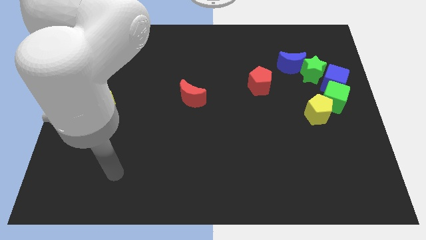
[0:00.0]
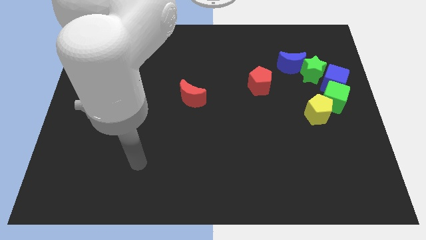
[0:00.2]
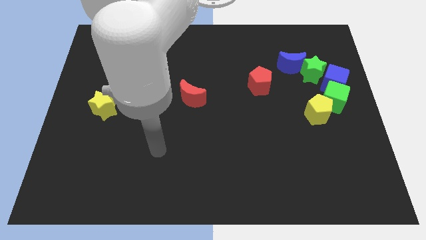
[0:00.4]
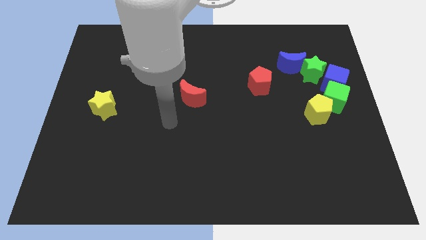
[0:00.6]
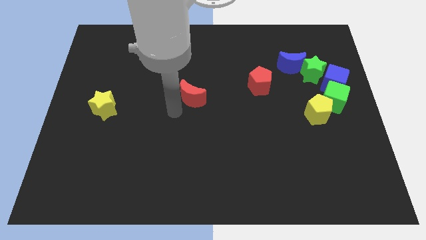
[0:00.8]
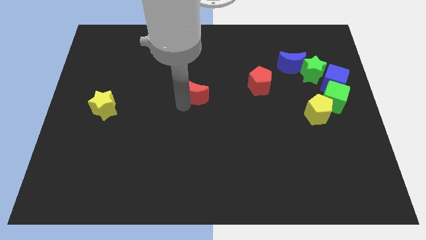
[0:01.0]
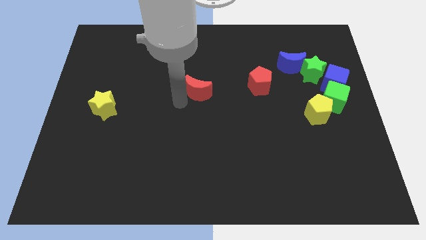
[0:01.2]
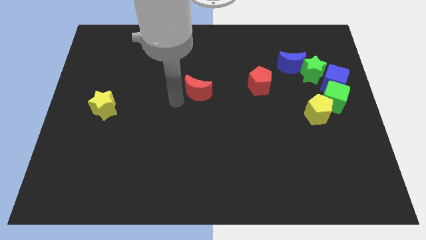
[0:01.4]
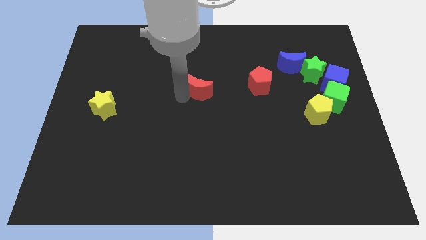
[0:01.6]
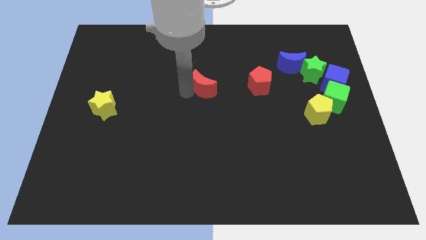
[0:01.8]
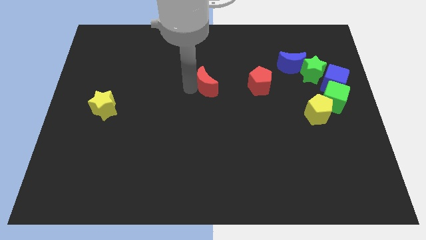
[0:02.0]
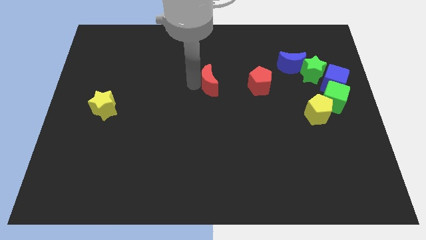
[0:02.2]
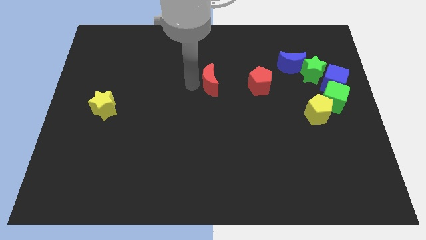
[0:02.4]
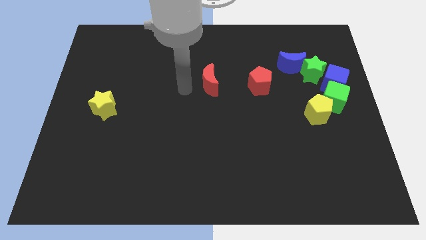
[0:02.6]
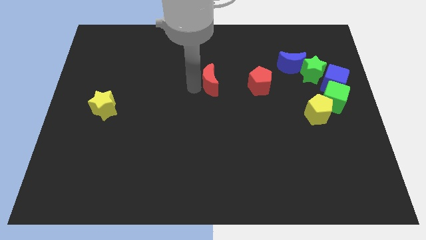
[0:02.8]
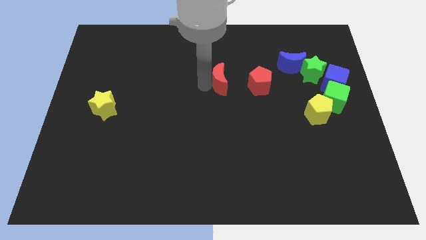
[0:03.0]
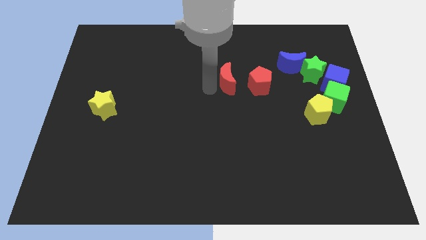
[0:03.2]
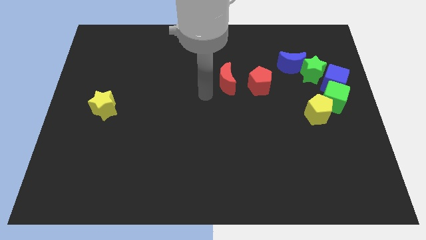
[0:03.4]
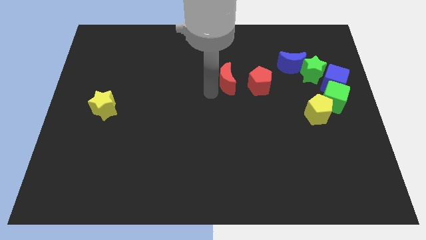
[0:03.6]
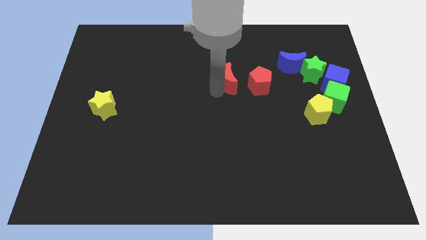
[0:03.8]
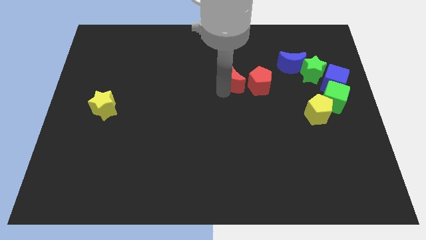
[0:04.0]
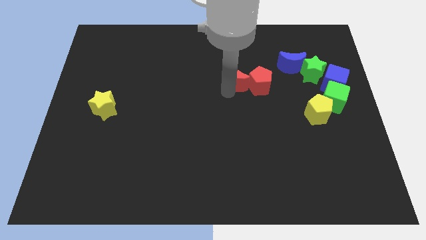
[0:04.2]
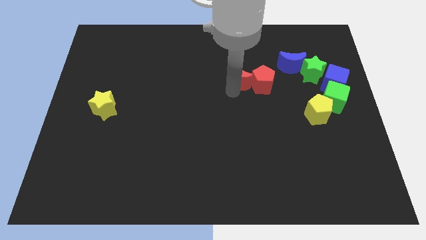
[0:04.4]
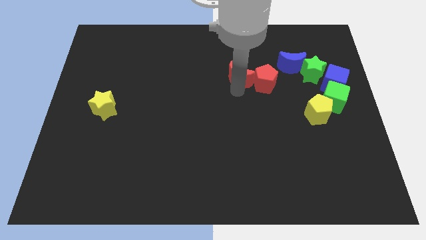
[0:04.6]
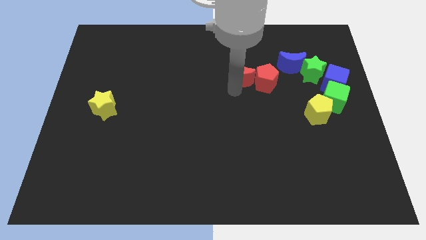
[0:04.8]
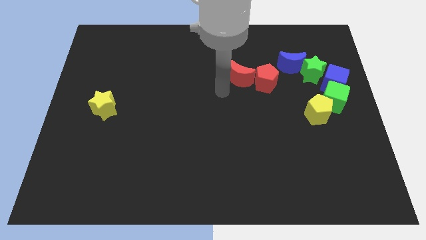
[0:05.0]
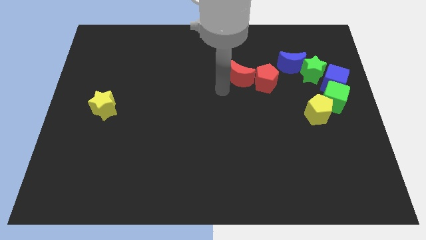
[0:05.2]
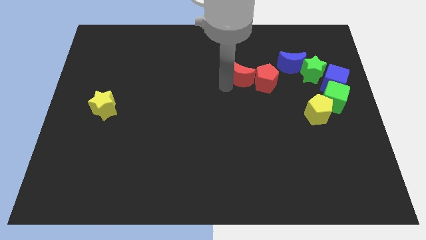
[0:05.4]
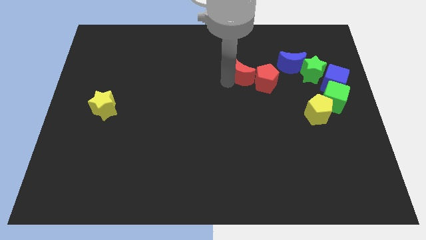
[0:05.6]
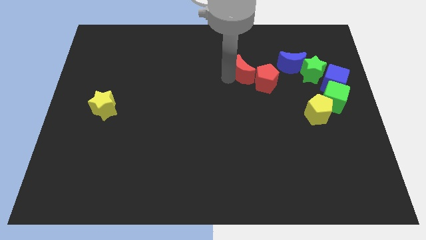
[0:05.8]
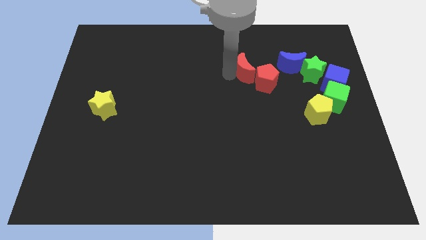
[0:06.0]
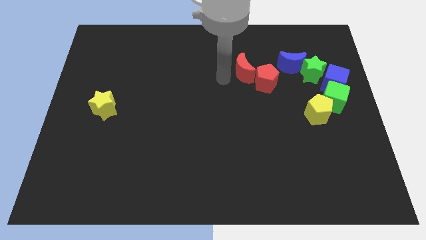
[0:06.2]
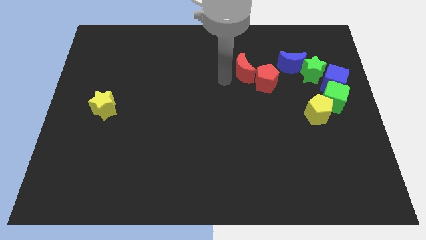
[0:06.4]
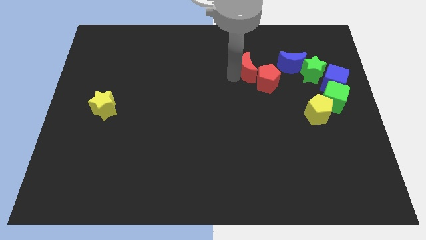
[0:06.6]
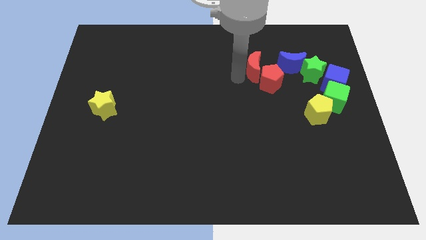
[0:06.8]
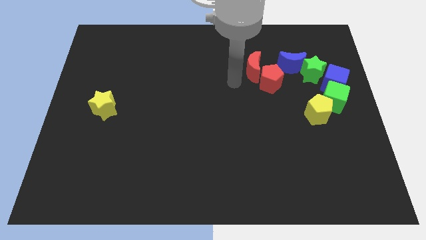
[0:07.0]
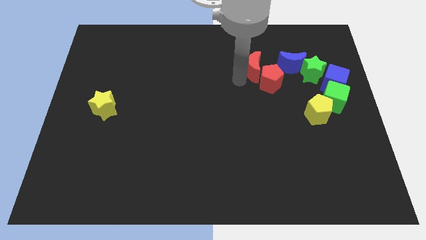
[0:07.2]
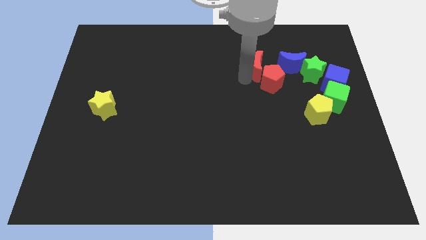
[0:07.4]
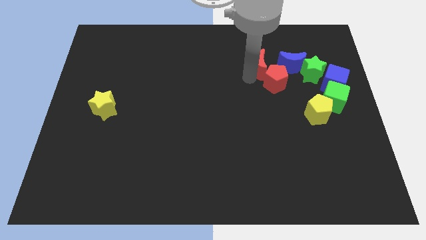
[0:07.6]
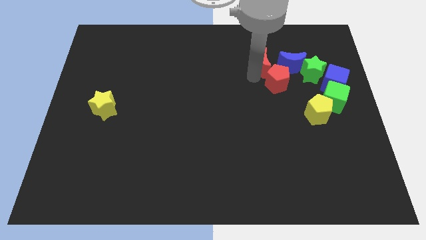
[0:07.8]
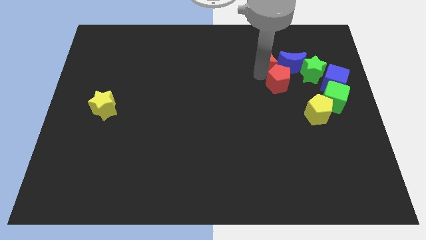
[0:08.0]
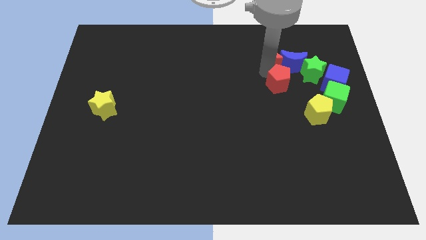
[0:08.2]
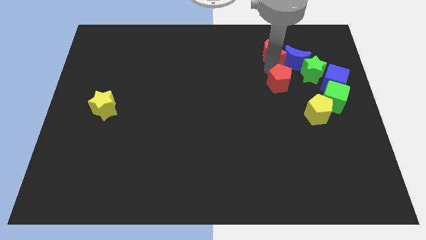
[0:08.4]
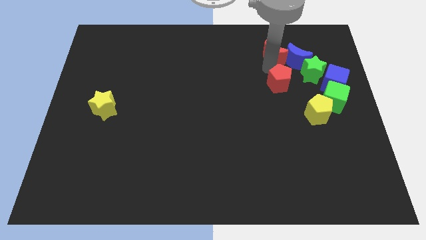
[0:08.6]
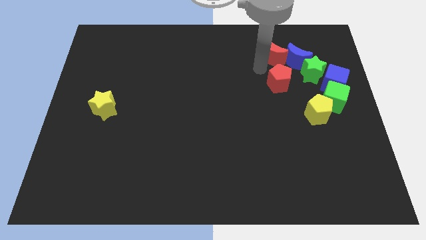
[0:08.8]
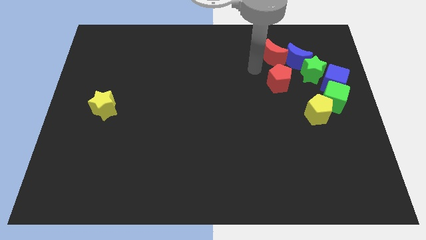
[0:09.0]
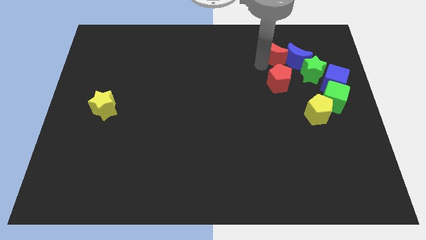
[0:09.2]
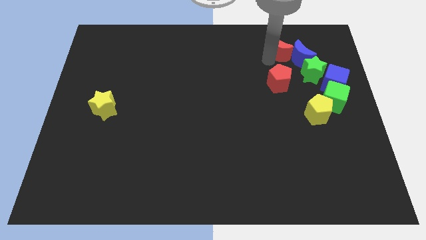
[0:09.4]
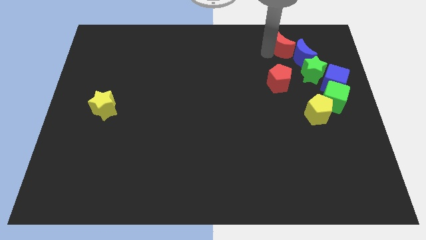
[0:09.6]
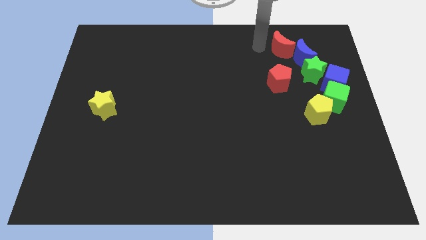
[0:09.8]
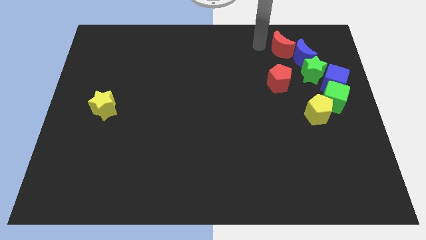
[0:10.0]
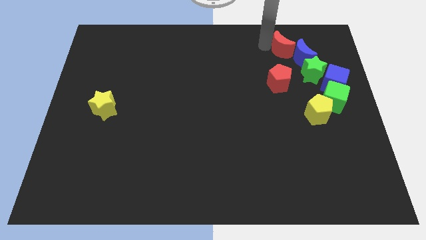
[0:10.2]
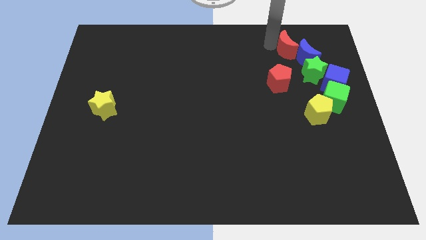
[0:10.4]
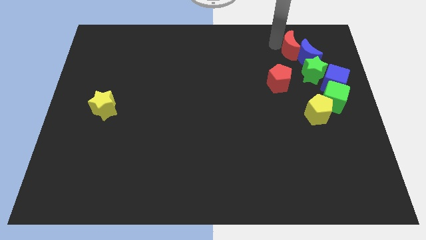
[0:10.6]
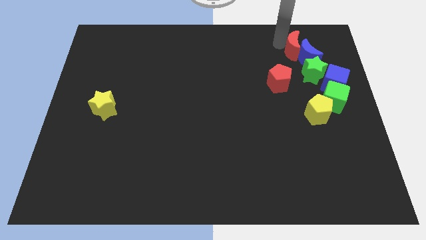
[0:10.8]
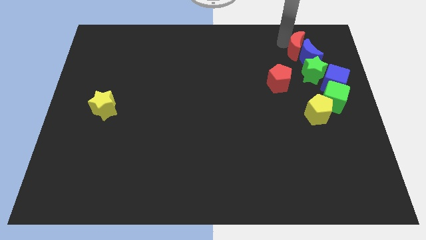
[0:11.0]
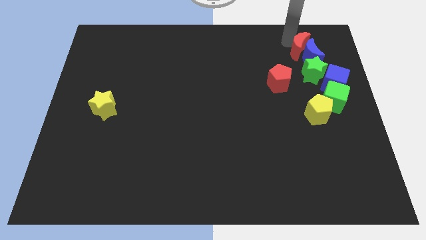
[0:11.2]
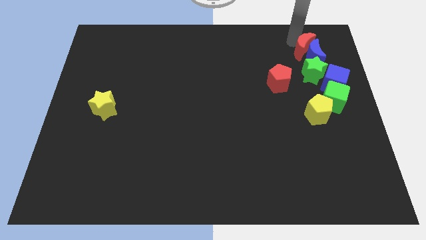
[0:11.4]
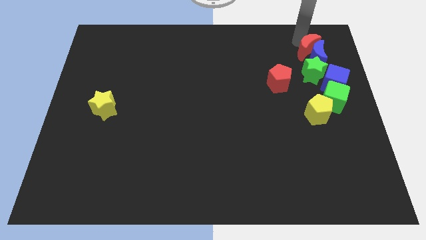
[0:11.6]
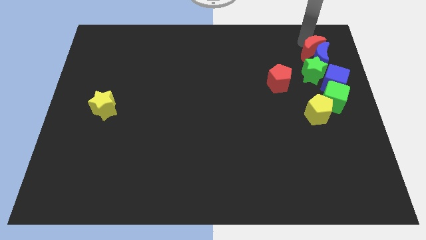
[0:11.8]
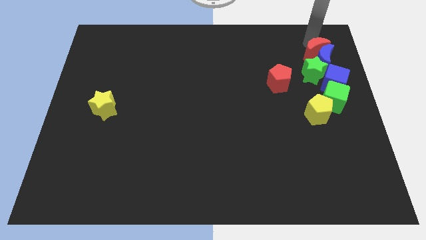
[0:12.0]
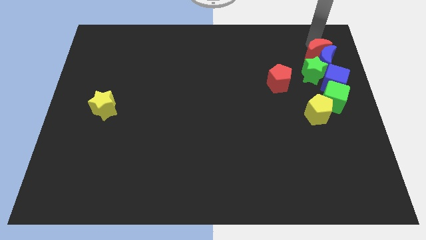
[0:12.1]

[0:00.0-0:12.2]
put the red moon to the top of the green cube

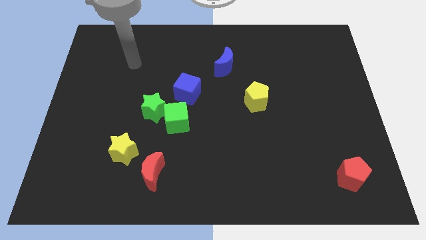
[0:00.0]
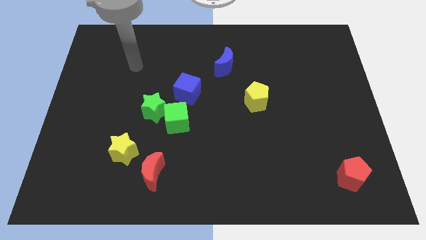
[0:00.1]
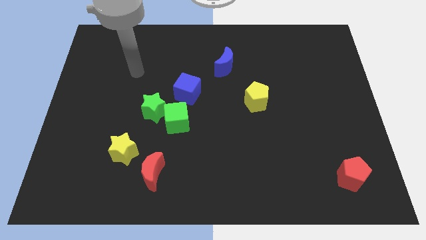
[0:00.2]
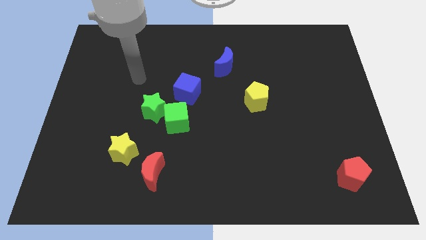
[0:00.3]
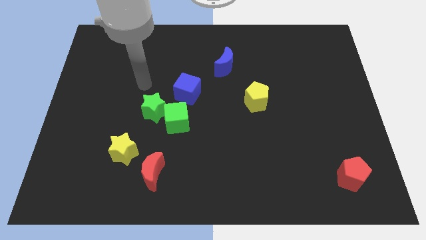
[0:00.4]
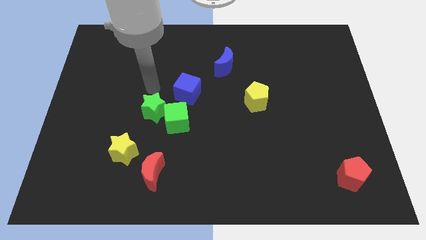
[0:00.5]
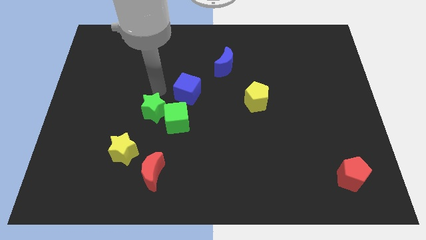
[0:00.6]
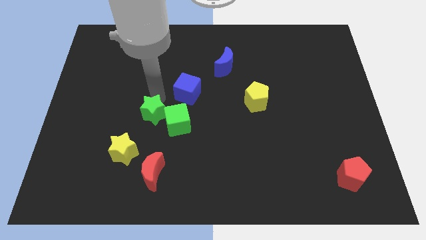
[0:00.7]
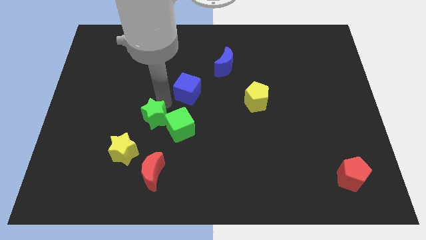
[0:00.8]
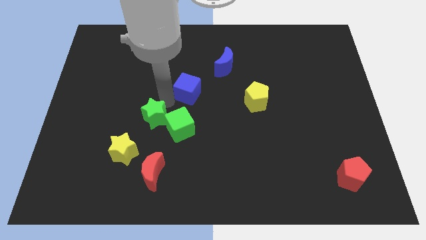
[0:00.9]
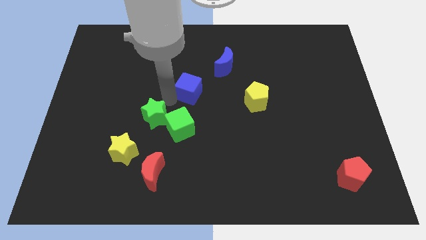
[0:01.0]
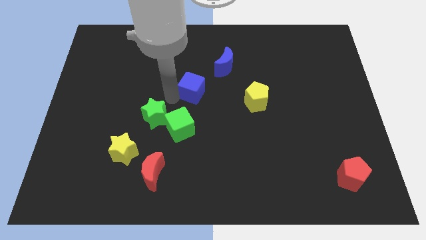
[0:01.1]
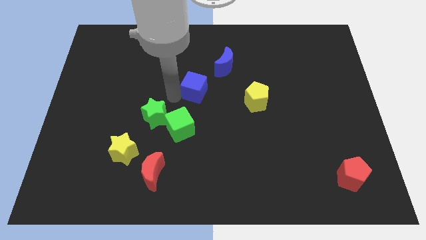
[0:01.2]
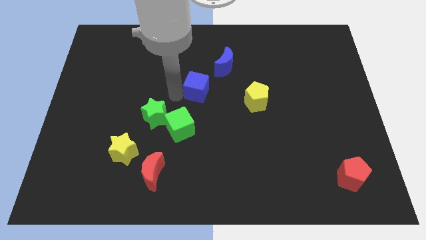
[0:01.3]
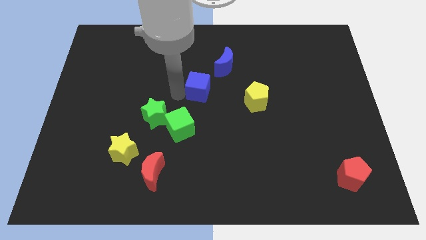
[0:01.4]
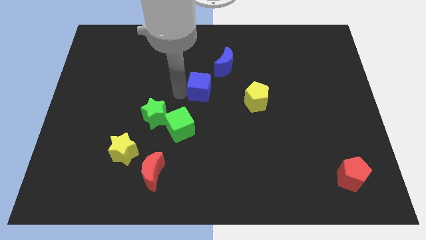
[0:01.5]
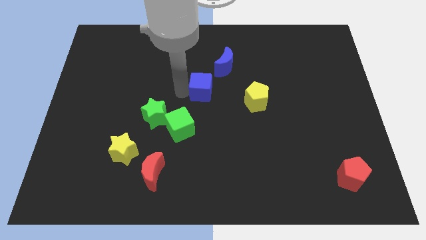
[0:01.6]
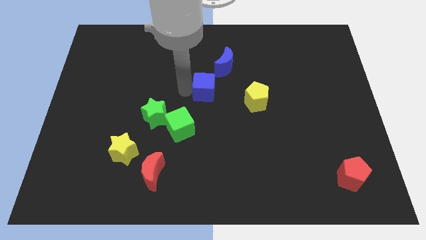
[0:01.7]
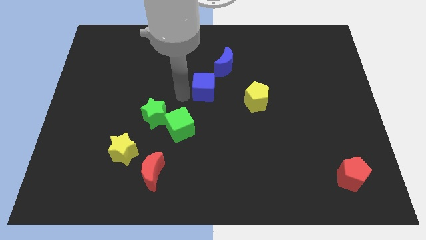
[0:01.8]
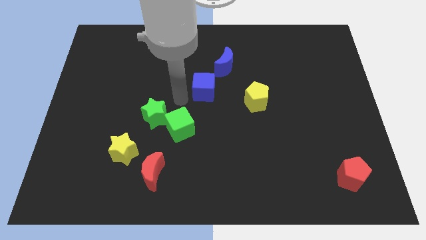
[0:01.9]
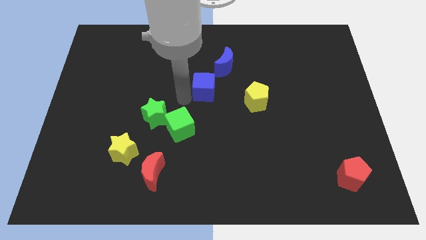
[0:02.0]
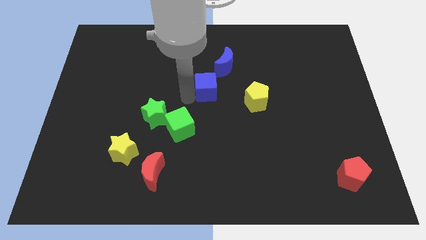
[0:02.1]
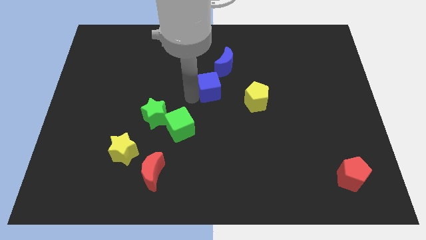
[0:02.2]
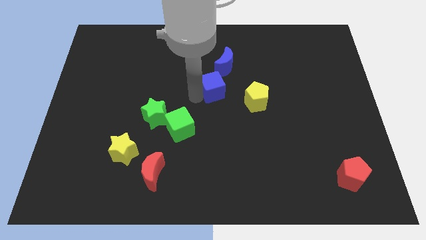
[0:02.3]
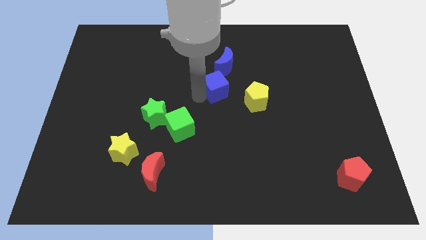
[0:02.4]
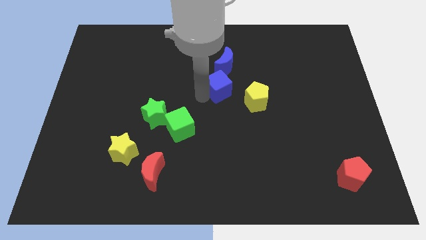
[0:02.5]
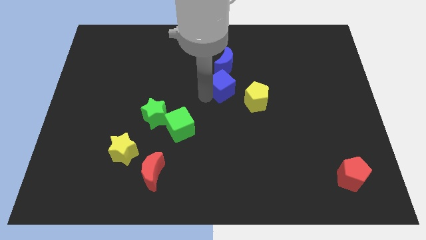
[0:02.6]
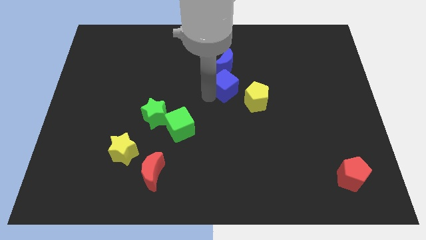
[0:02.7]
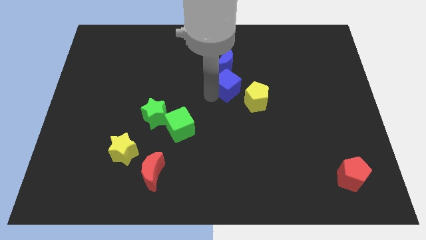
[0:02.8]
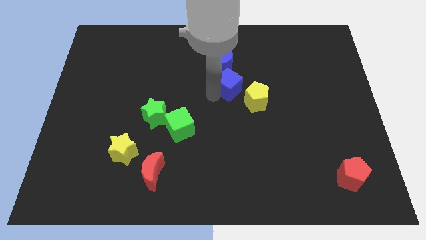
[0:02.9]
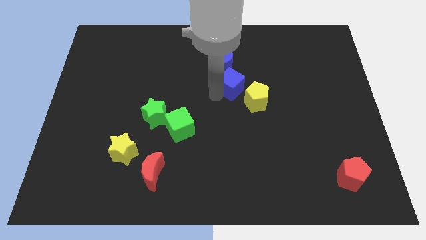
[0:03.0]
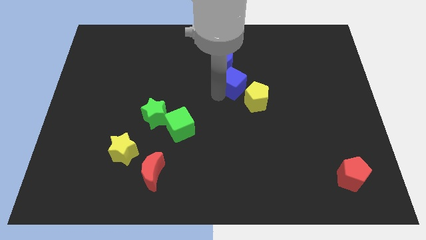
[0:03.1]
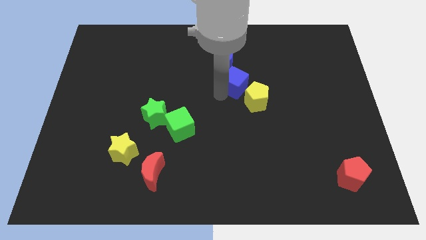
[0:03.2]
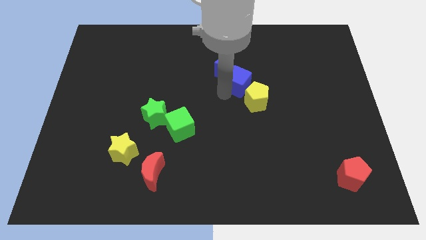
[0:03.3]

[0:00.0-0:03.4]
move the blue cube above the yellow pentagon
